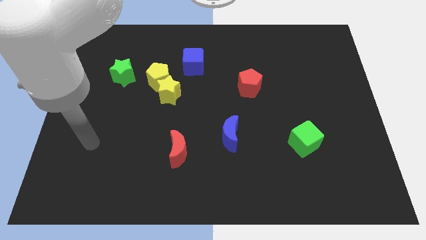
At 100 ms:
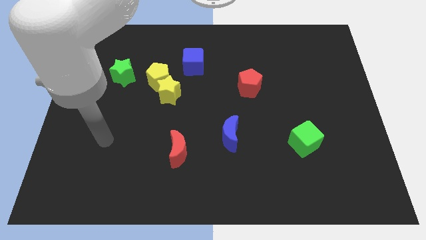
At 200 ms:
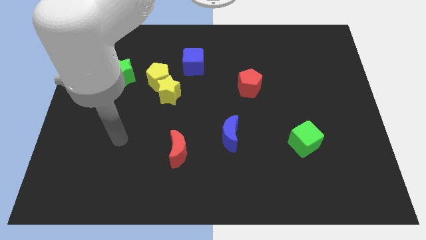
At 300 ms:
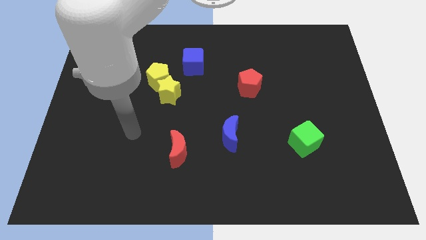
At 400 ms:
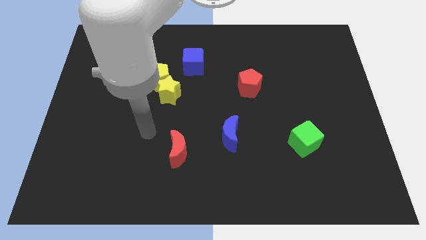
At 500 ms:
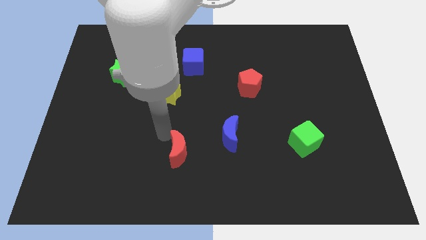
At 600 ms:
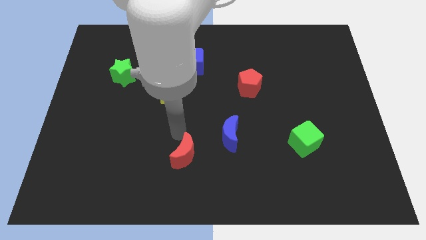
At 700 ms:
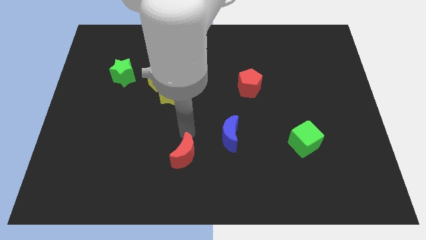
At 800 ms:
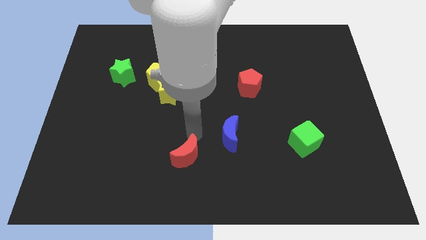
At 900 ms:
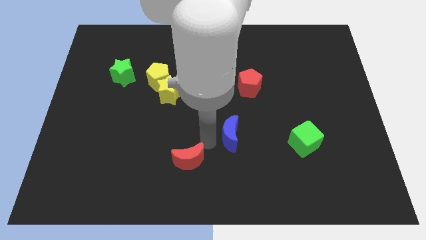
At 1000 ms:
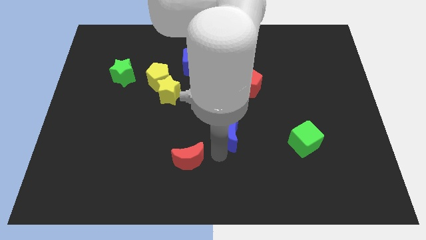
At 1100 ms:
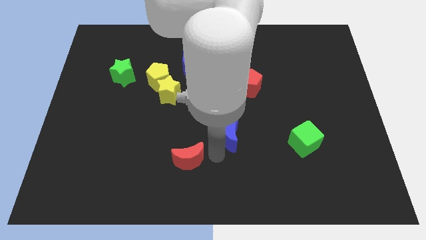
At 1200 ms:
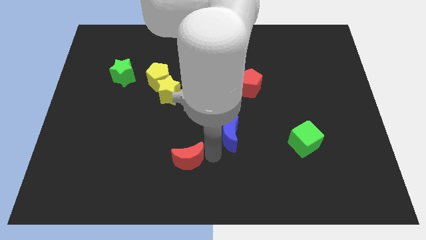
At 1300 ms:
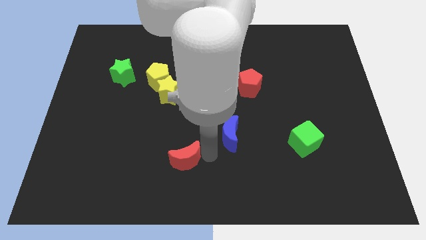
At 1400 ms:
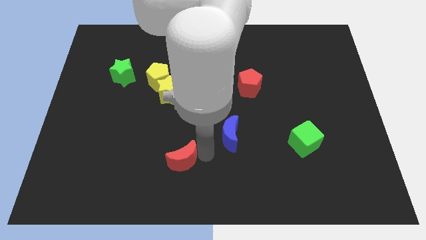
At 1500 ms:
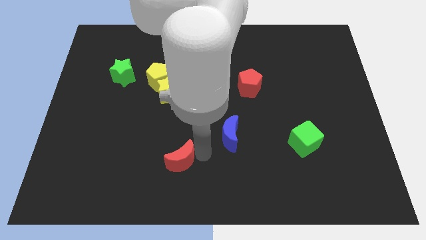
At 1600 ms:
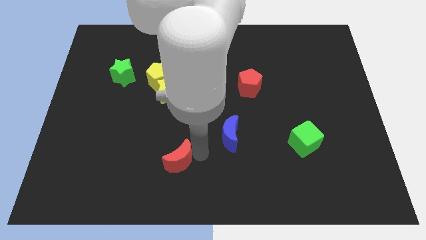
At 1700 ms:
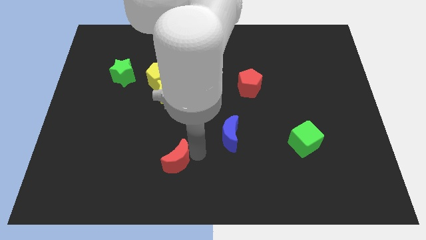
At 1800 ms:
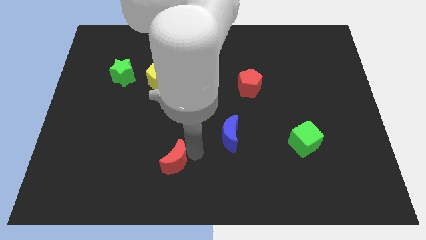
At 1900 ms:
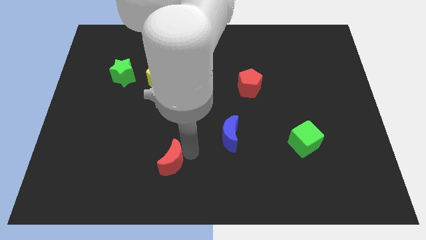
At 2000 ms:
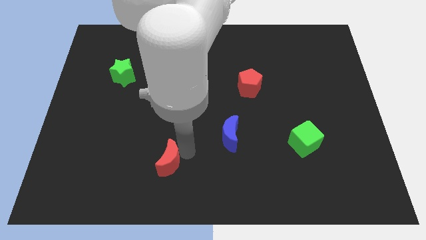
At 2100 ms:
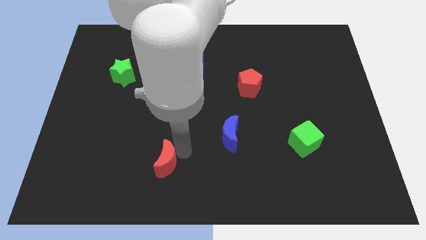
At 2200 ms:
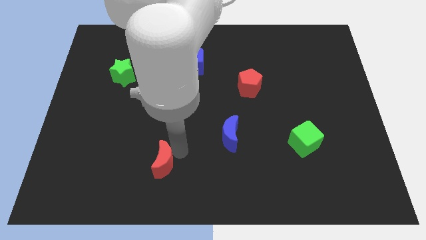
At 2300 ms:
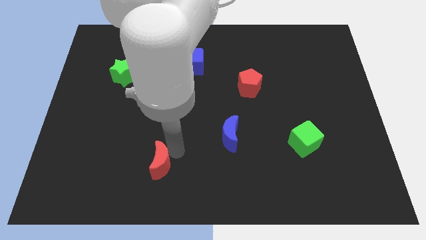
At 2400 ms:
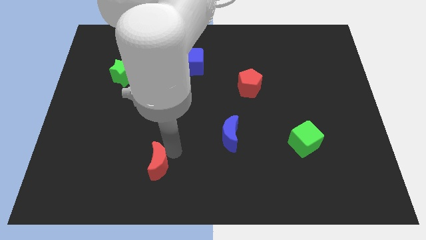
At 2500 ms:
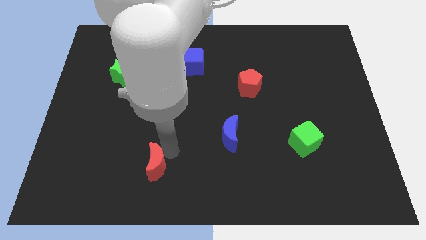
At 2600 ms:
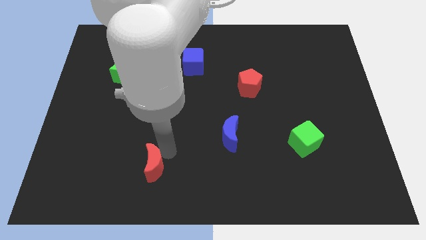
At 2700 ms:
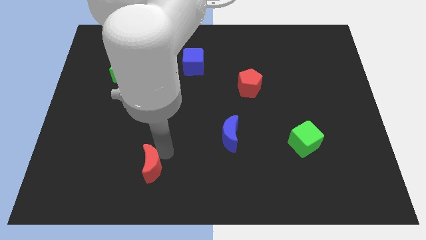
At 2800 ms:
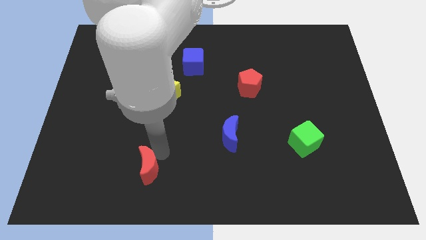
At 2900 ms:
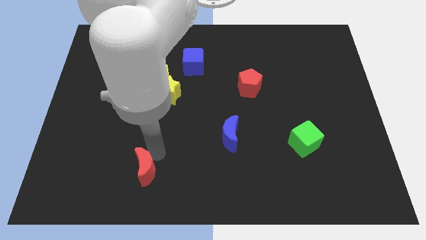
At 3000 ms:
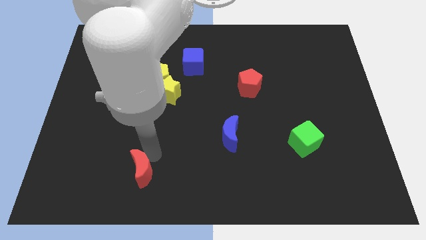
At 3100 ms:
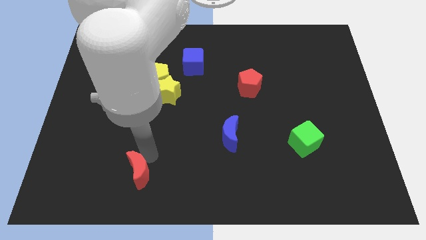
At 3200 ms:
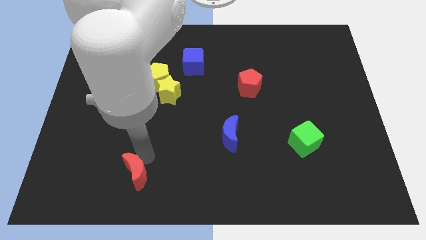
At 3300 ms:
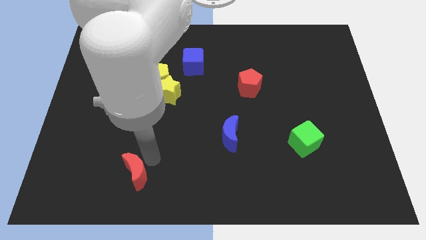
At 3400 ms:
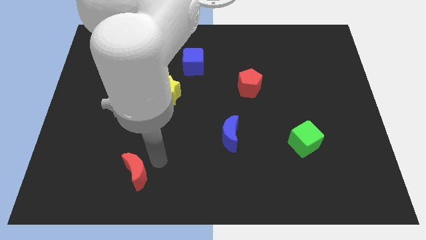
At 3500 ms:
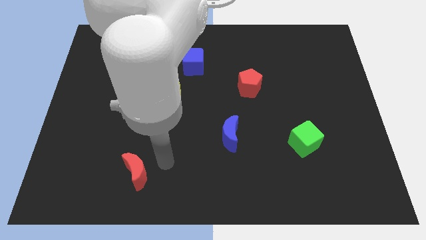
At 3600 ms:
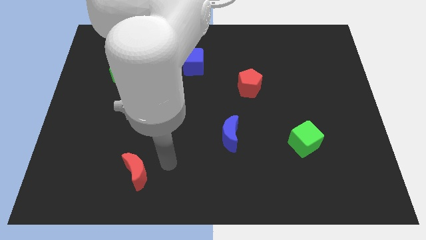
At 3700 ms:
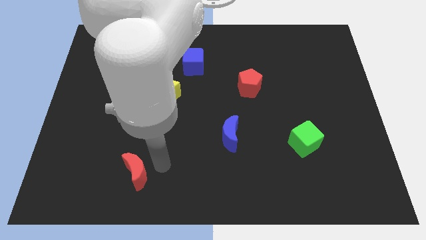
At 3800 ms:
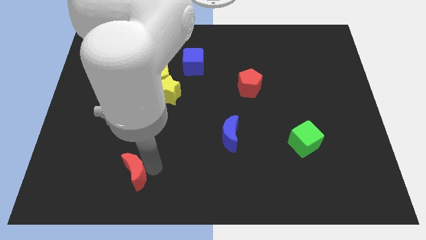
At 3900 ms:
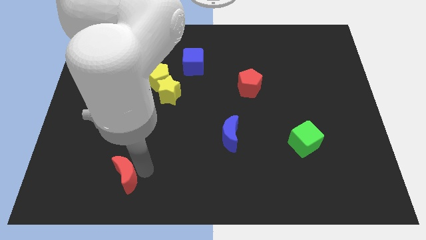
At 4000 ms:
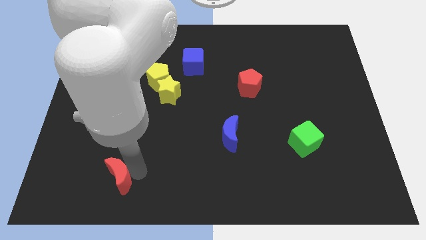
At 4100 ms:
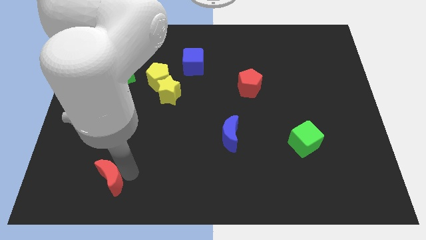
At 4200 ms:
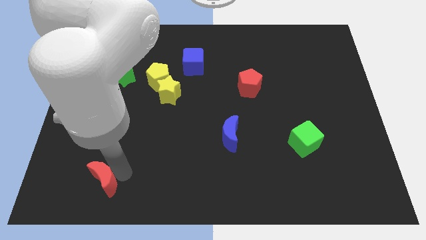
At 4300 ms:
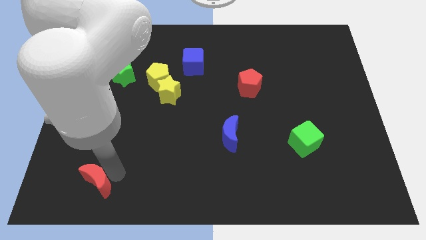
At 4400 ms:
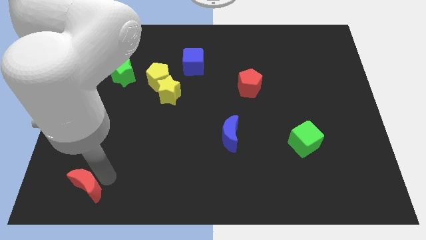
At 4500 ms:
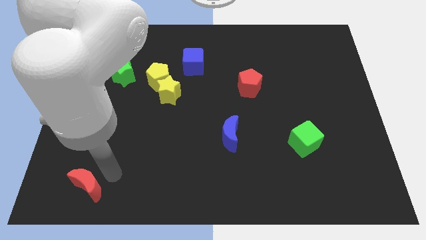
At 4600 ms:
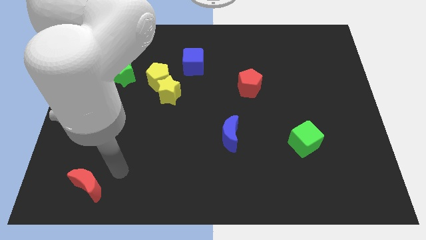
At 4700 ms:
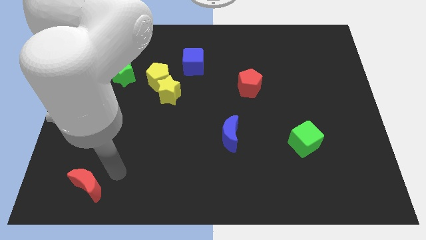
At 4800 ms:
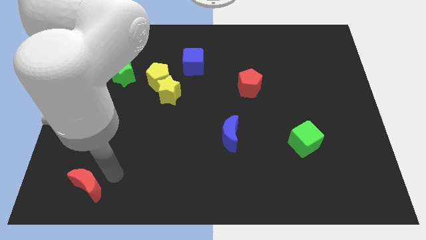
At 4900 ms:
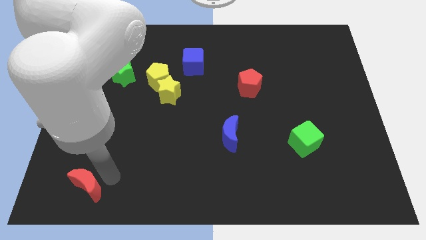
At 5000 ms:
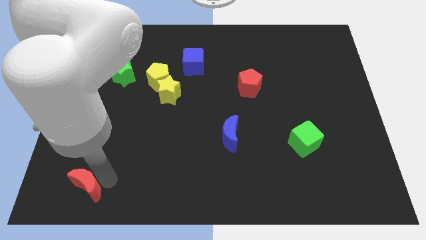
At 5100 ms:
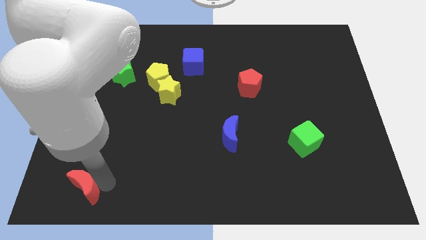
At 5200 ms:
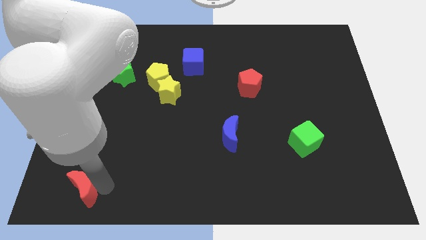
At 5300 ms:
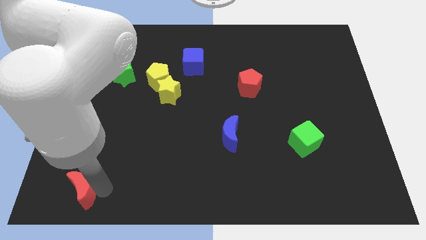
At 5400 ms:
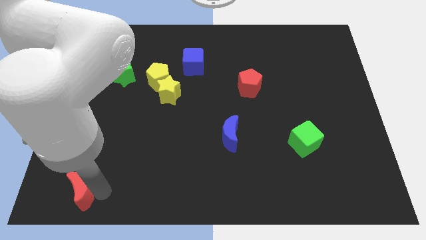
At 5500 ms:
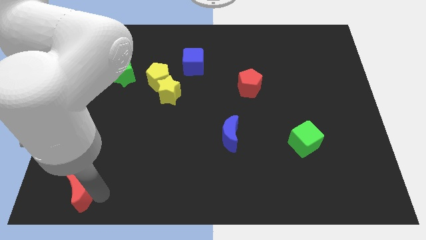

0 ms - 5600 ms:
push the red moon to the bottom left of the board

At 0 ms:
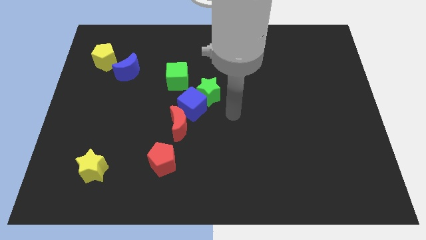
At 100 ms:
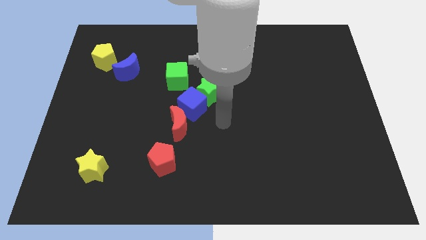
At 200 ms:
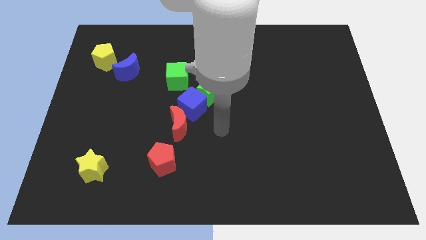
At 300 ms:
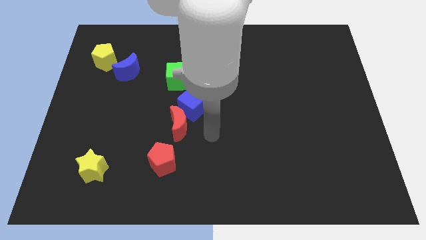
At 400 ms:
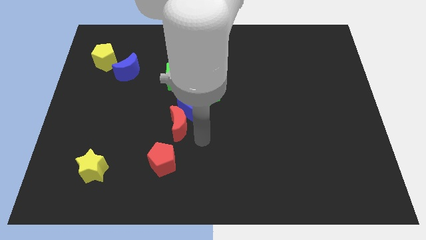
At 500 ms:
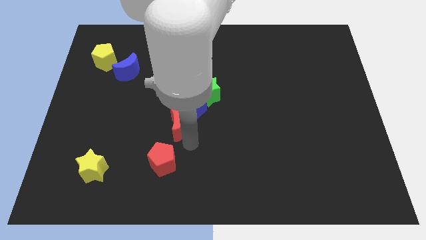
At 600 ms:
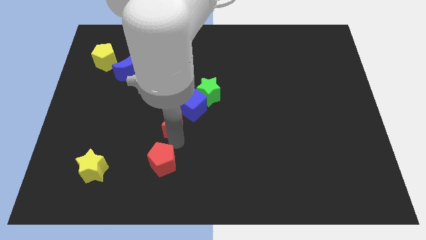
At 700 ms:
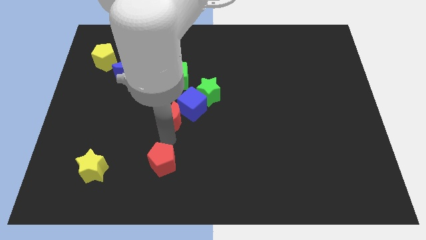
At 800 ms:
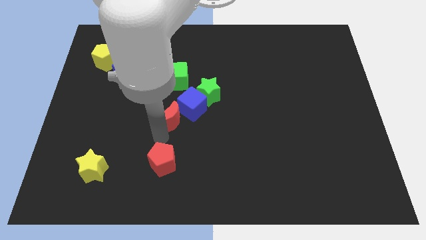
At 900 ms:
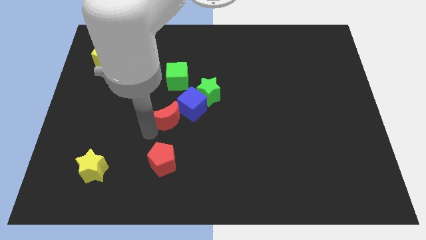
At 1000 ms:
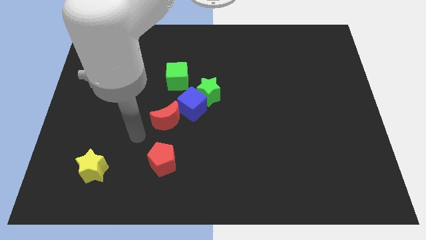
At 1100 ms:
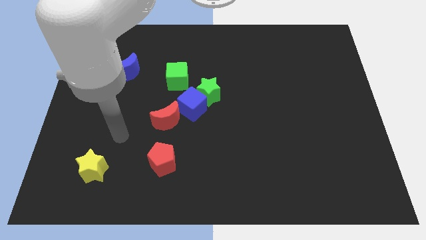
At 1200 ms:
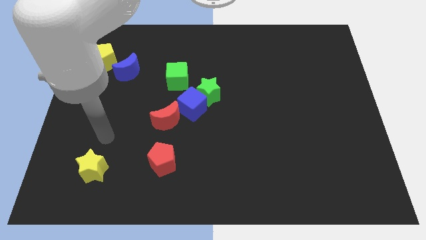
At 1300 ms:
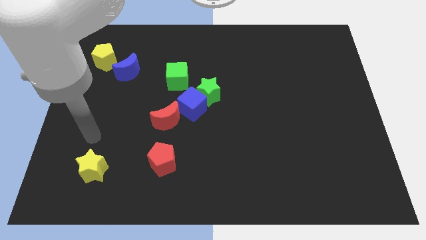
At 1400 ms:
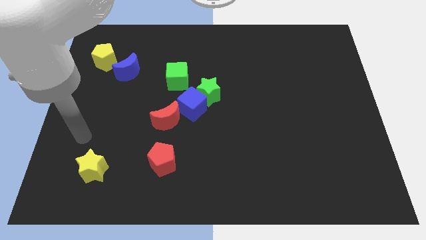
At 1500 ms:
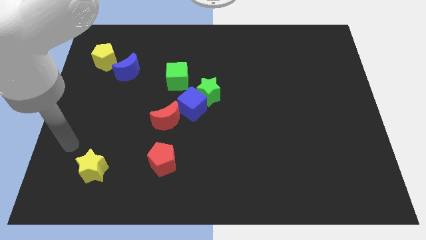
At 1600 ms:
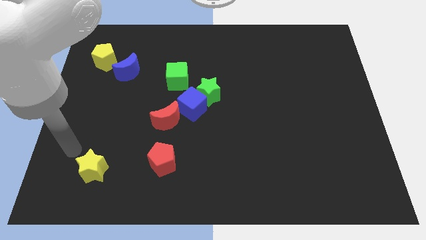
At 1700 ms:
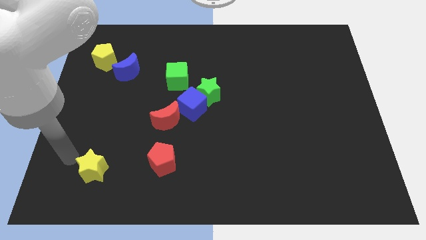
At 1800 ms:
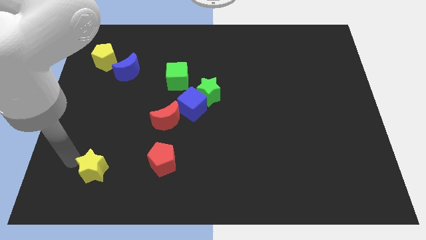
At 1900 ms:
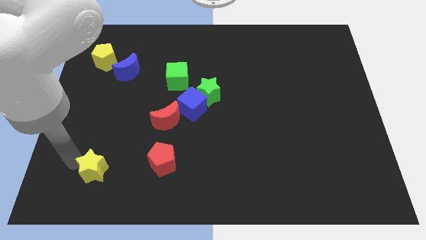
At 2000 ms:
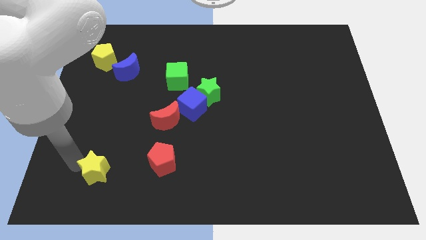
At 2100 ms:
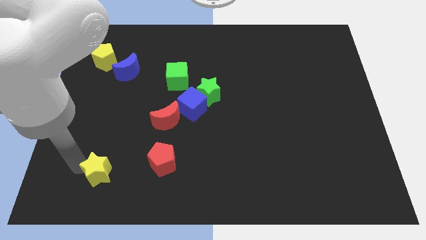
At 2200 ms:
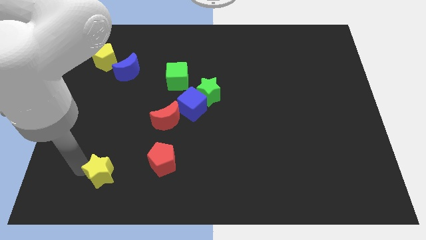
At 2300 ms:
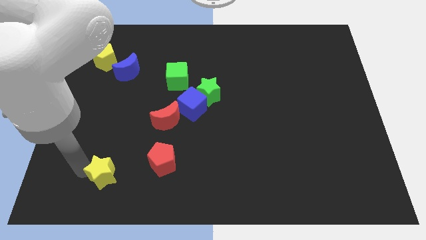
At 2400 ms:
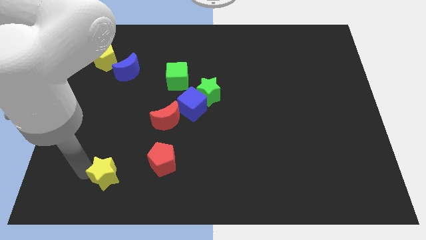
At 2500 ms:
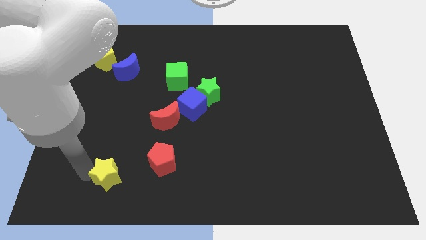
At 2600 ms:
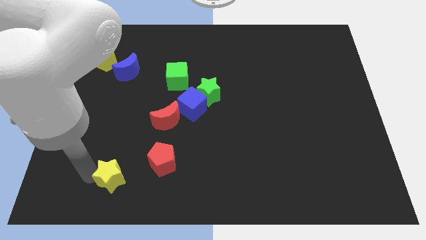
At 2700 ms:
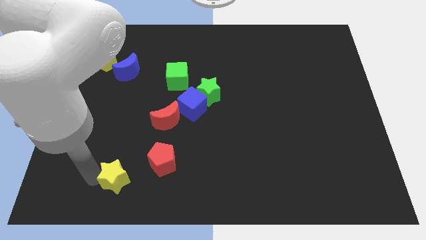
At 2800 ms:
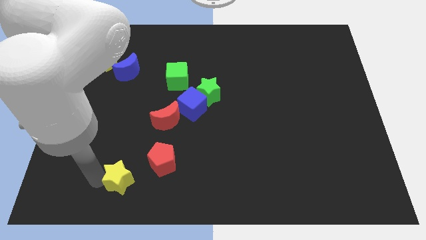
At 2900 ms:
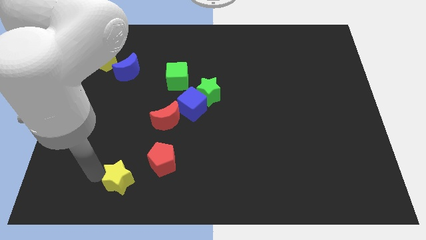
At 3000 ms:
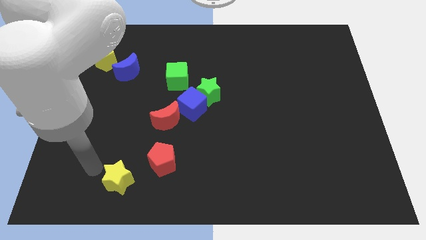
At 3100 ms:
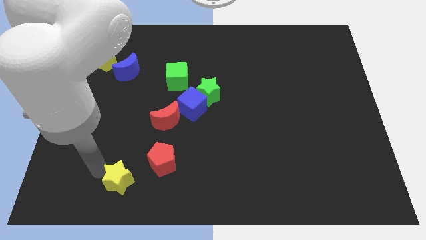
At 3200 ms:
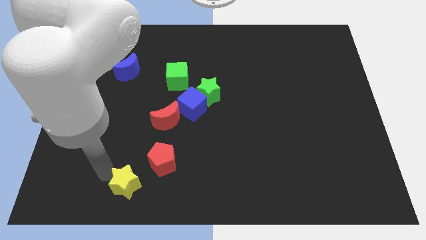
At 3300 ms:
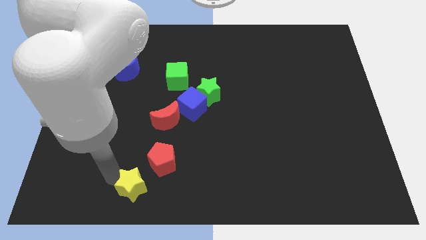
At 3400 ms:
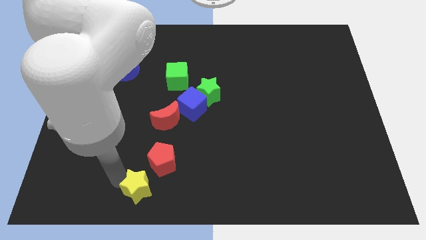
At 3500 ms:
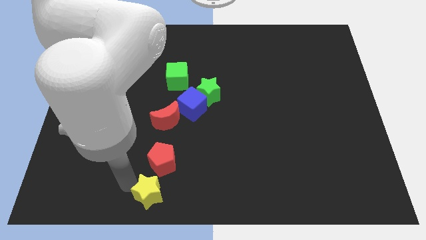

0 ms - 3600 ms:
move the yellow star to the bottom side
